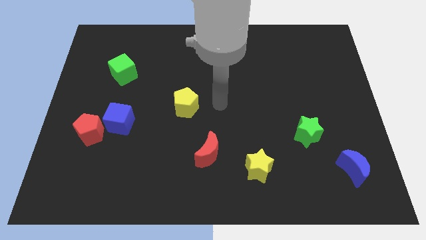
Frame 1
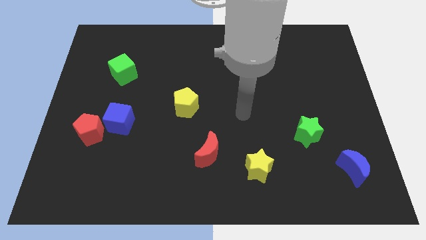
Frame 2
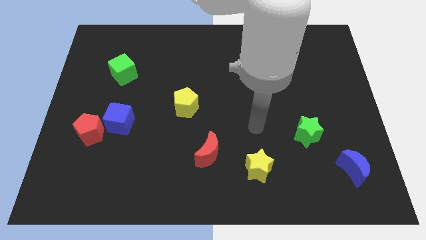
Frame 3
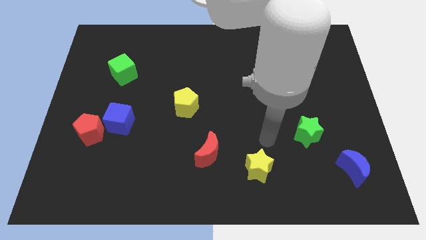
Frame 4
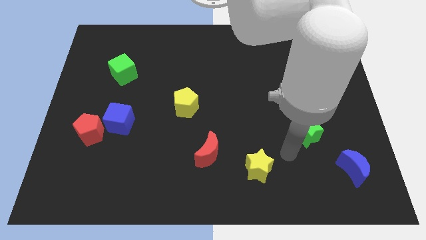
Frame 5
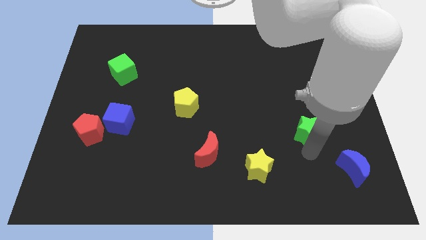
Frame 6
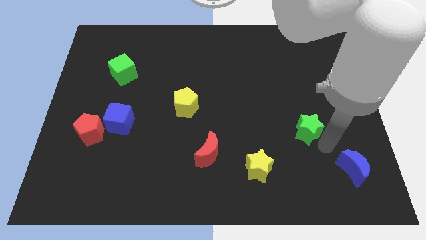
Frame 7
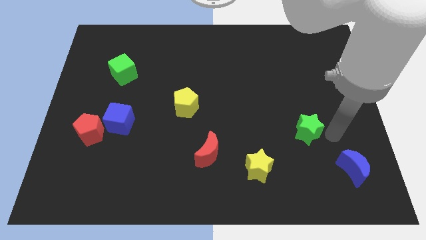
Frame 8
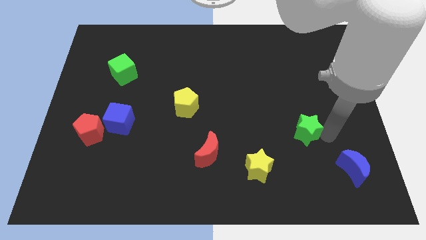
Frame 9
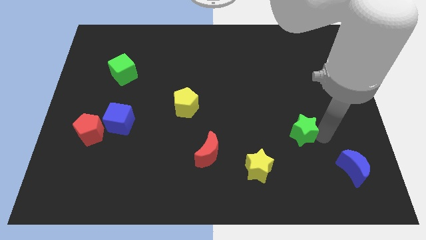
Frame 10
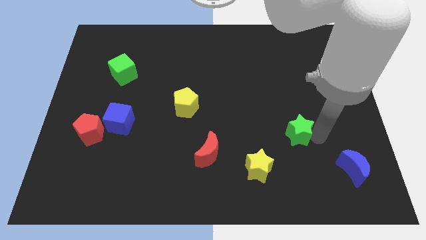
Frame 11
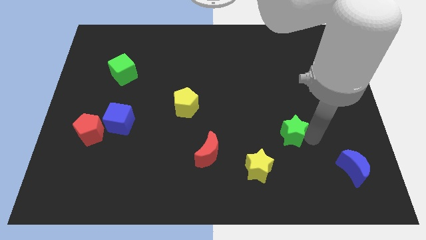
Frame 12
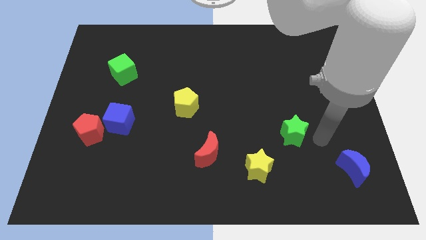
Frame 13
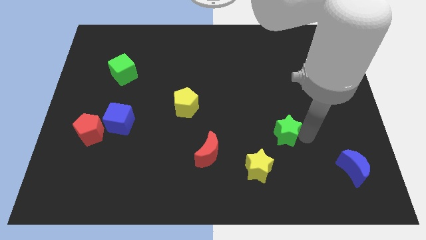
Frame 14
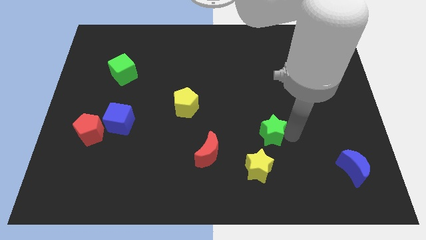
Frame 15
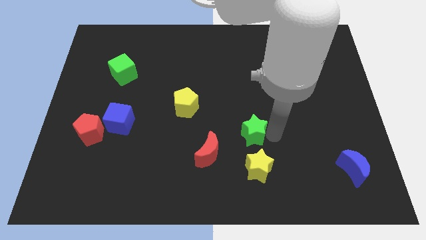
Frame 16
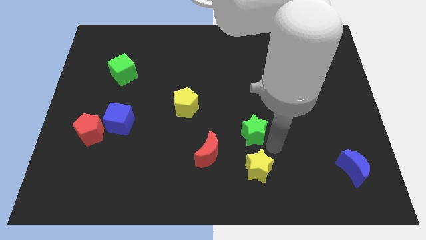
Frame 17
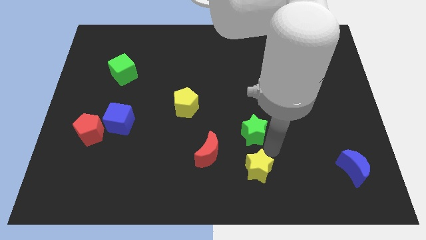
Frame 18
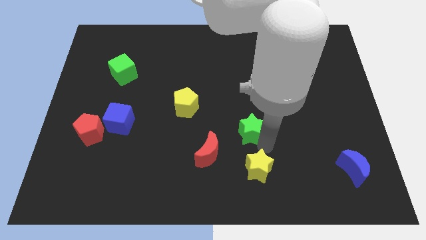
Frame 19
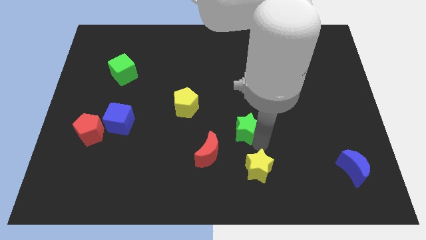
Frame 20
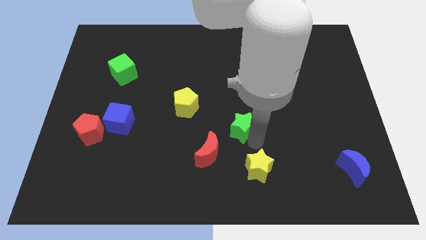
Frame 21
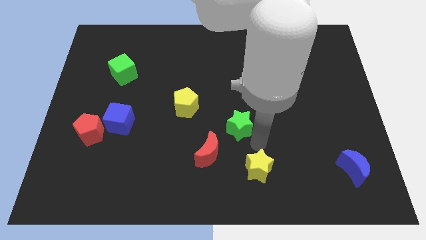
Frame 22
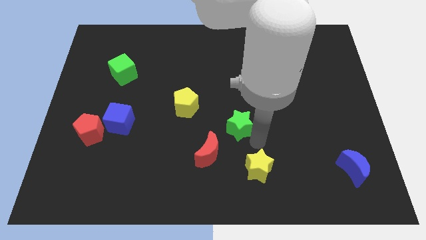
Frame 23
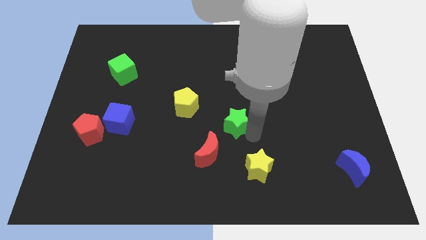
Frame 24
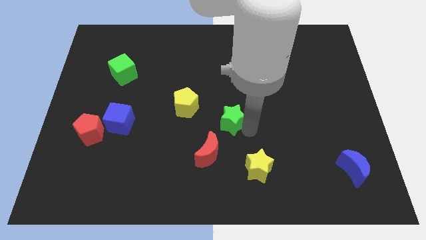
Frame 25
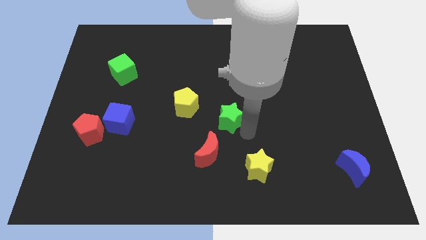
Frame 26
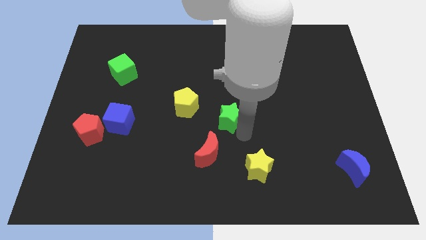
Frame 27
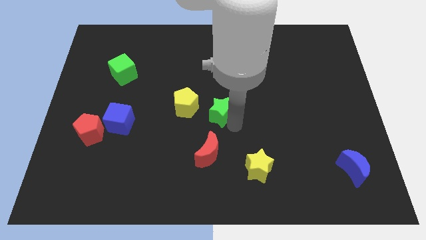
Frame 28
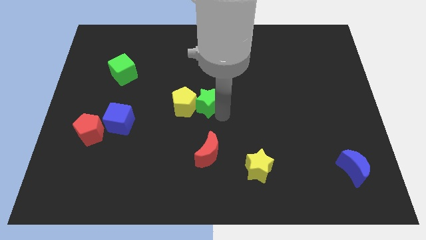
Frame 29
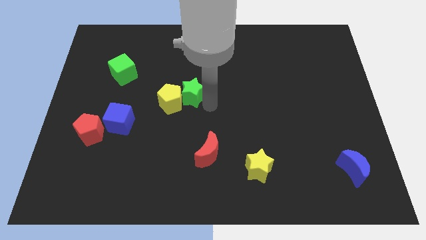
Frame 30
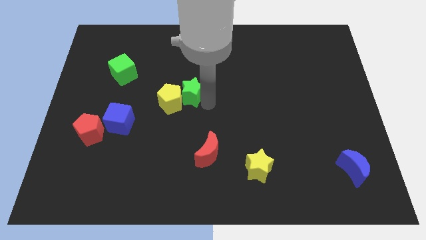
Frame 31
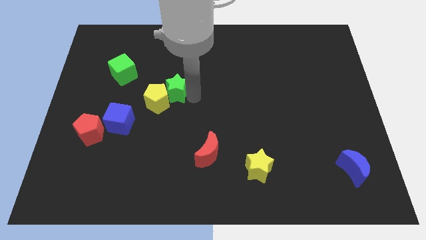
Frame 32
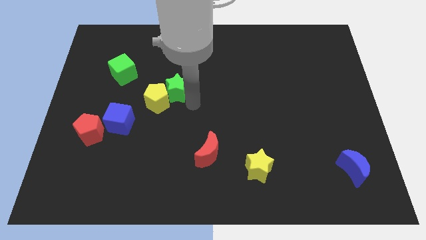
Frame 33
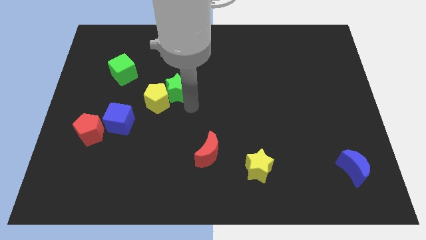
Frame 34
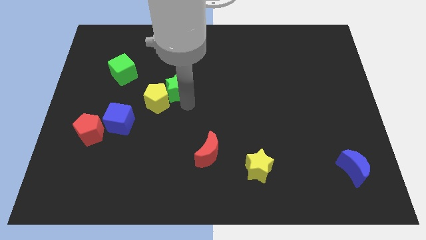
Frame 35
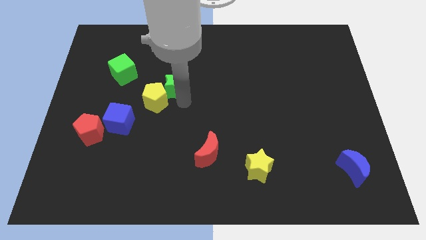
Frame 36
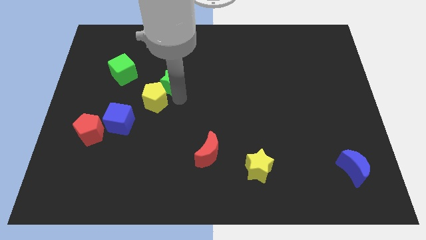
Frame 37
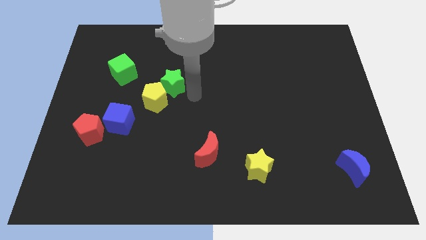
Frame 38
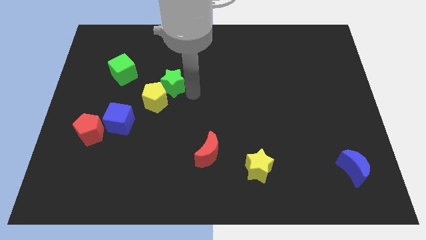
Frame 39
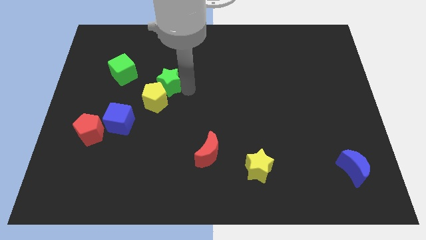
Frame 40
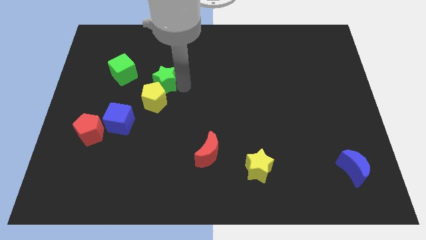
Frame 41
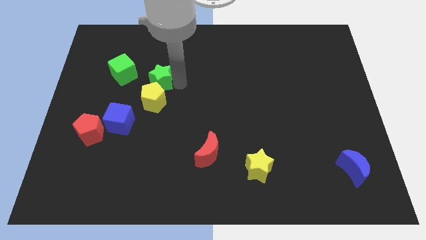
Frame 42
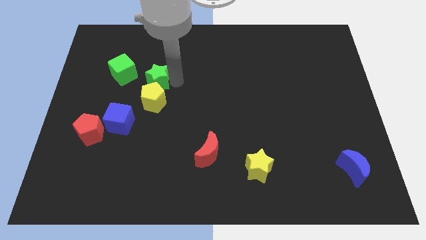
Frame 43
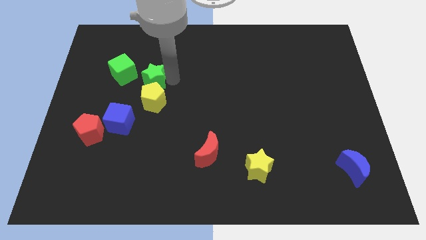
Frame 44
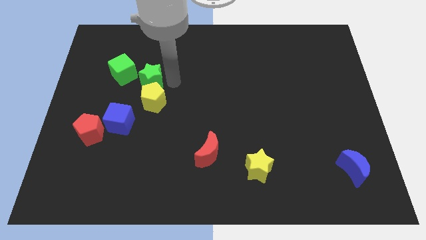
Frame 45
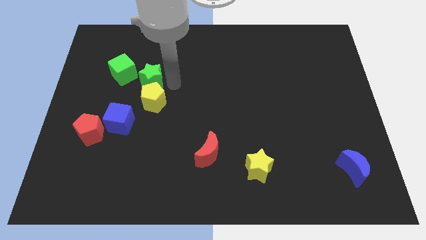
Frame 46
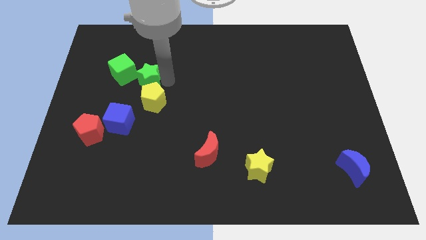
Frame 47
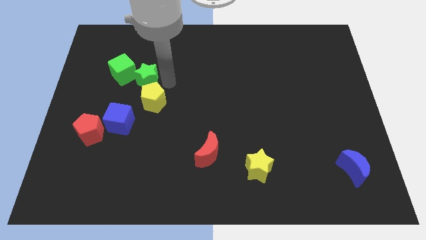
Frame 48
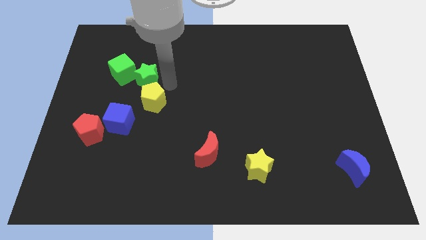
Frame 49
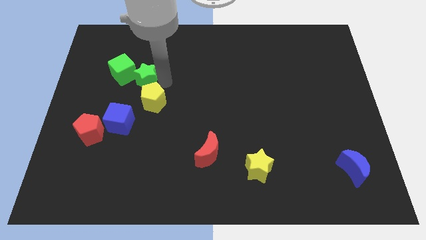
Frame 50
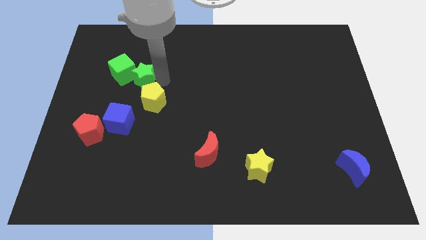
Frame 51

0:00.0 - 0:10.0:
push the green star to the green cube

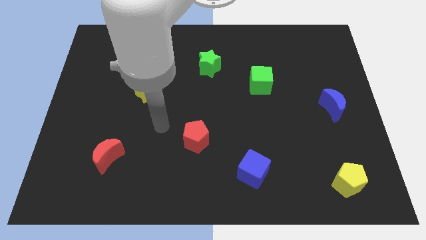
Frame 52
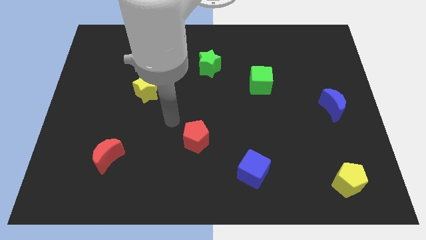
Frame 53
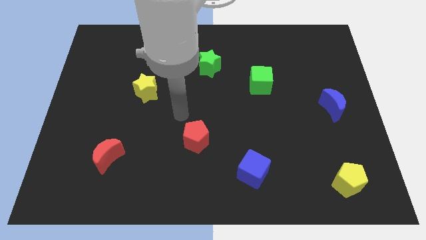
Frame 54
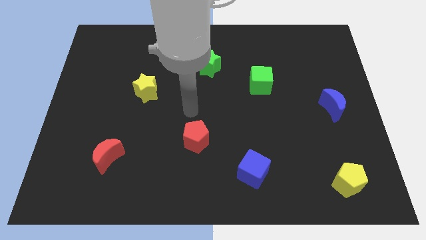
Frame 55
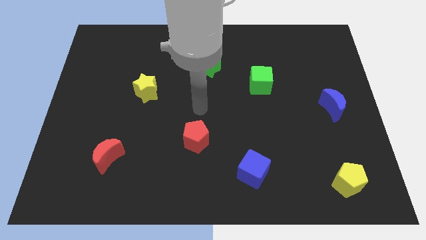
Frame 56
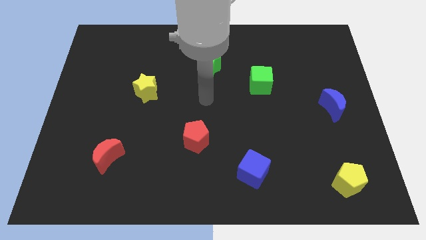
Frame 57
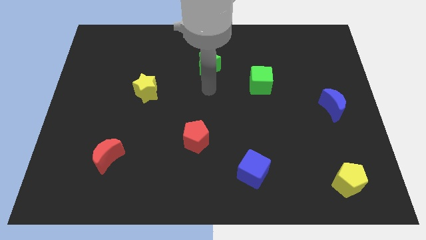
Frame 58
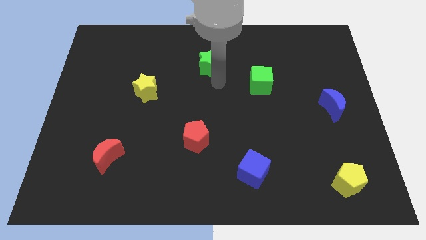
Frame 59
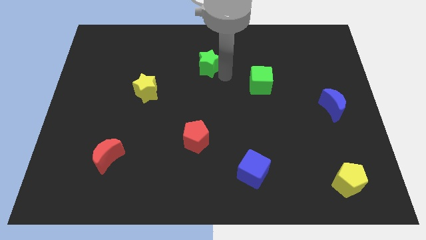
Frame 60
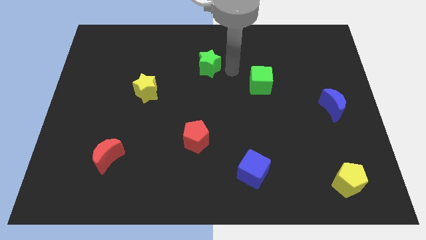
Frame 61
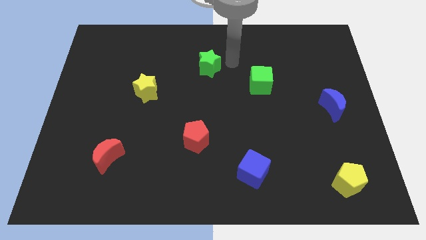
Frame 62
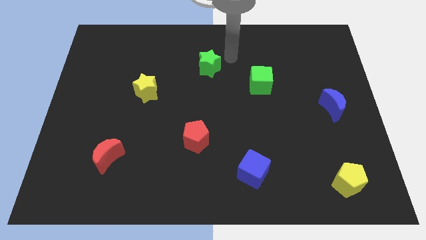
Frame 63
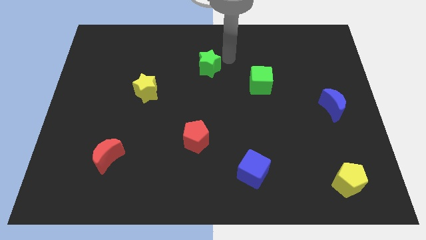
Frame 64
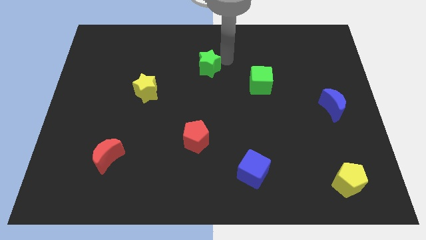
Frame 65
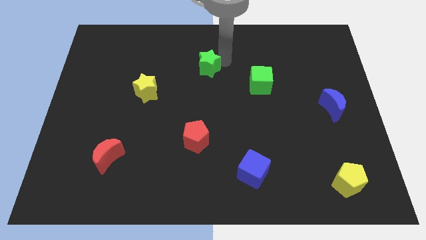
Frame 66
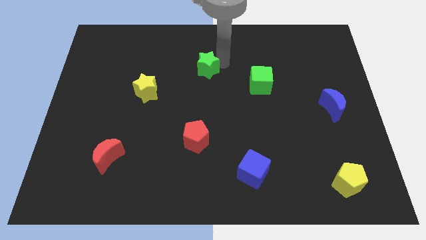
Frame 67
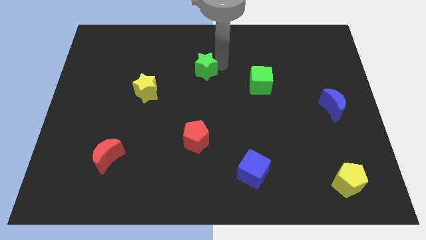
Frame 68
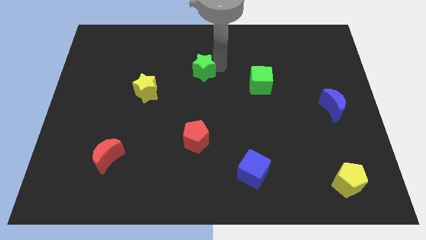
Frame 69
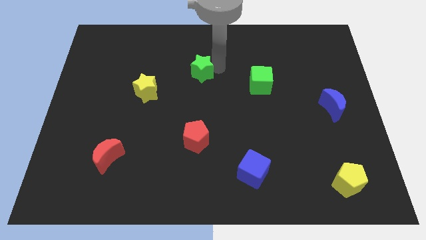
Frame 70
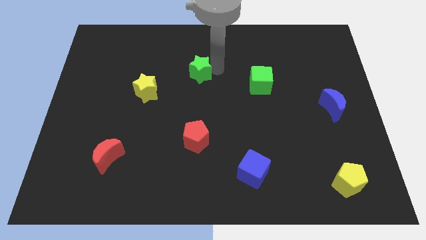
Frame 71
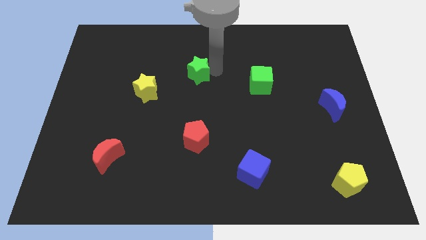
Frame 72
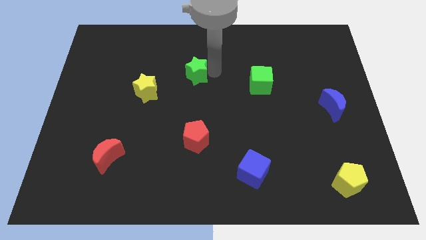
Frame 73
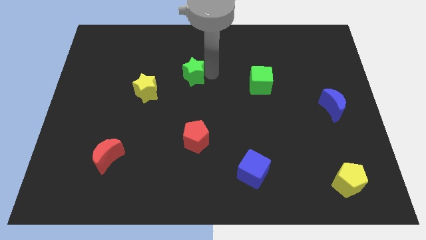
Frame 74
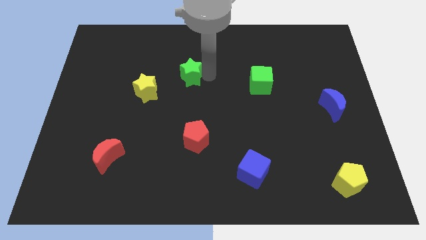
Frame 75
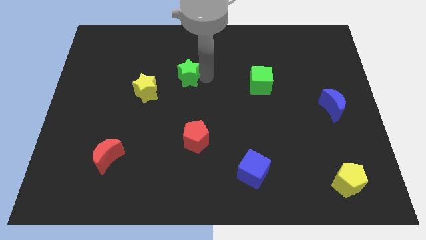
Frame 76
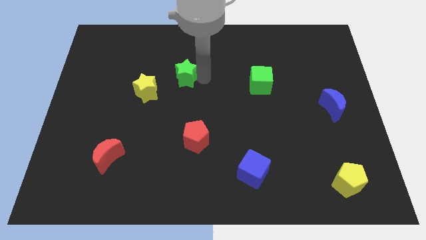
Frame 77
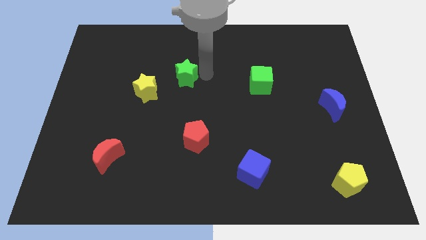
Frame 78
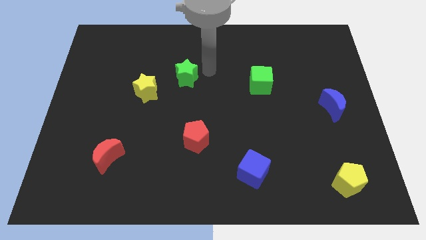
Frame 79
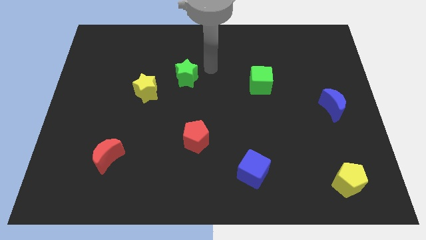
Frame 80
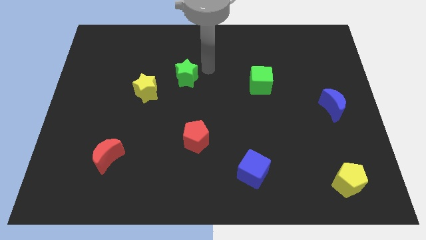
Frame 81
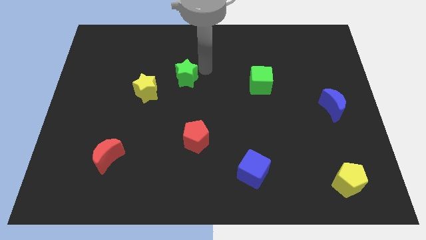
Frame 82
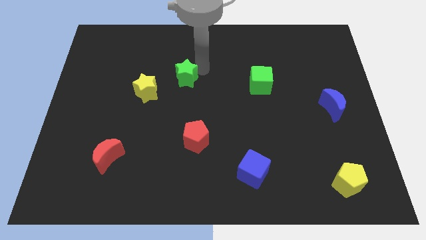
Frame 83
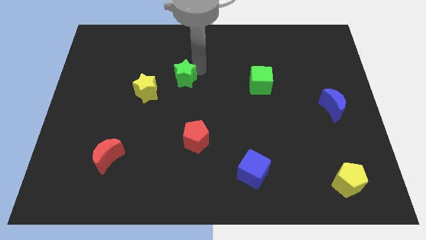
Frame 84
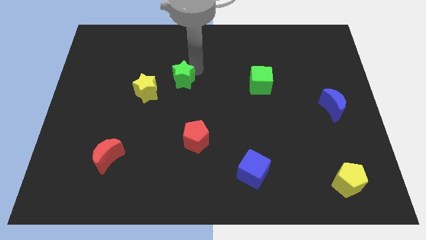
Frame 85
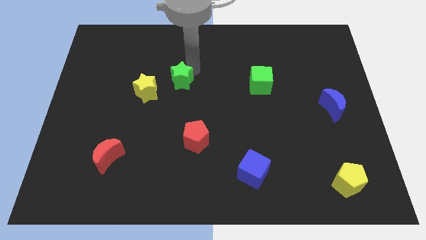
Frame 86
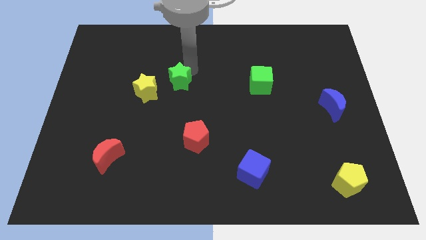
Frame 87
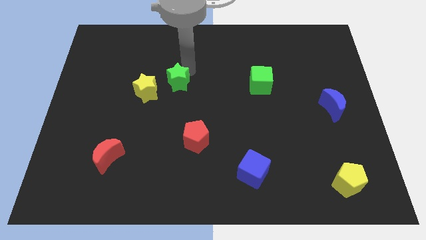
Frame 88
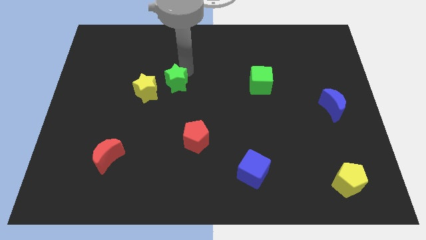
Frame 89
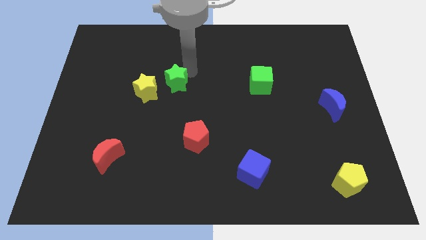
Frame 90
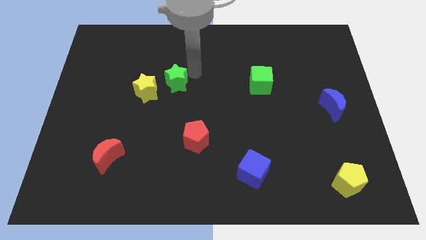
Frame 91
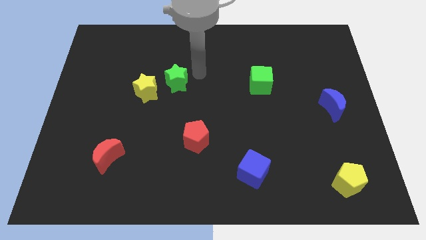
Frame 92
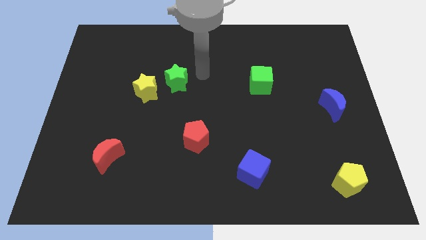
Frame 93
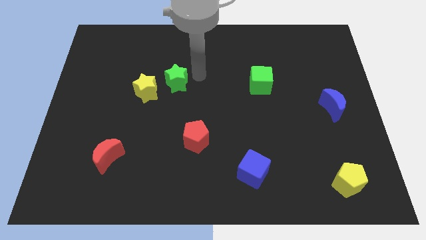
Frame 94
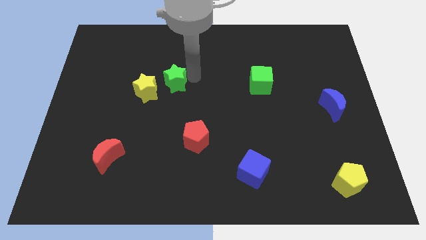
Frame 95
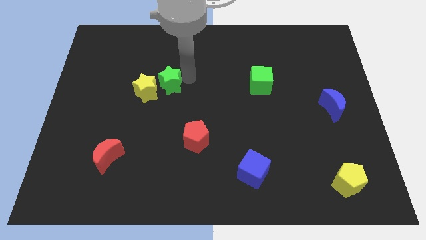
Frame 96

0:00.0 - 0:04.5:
slide the green star next to the yellow star
